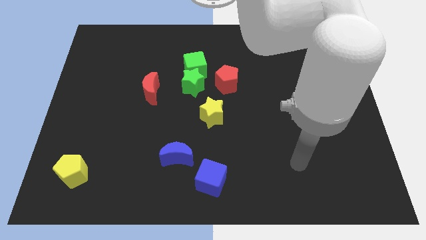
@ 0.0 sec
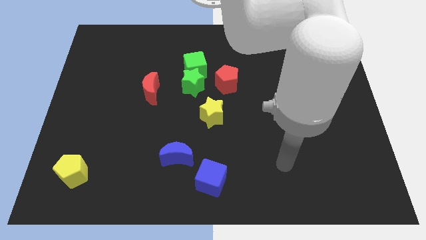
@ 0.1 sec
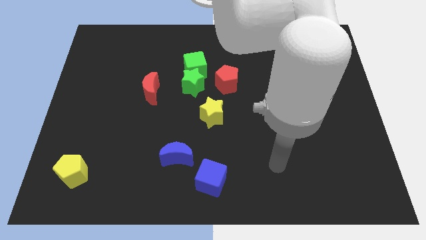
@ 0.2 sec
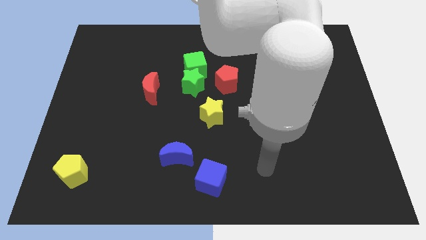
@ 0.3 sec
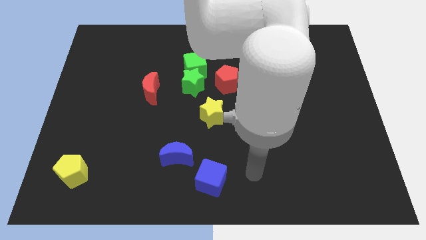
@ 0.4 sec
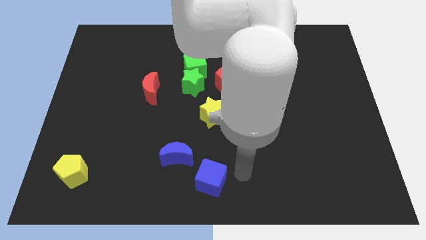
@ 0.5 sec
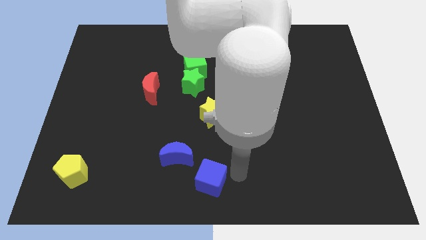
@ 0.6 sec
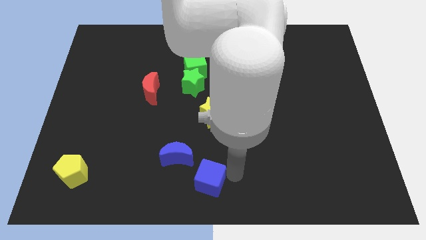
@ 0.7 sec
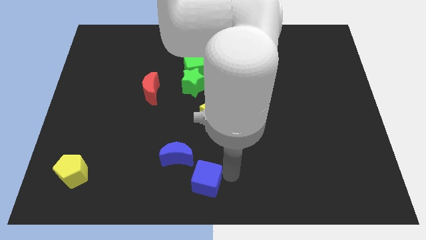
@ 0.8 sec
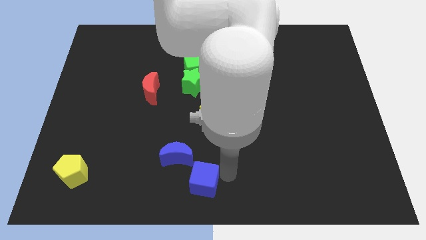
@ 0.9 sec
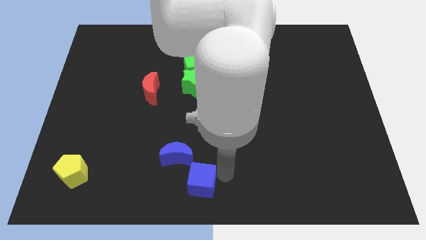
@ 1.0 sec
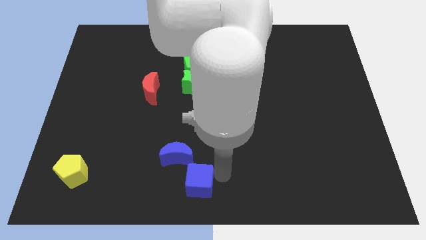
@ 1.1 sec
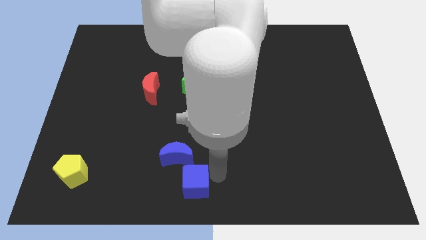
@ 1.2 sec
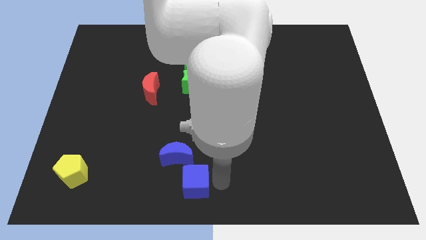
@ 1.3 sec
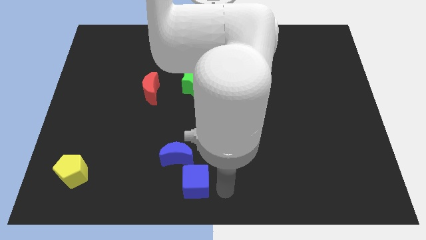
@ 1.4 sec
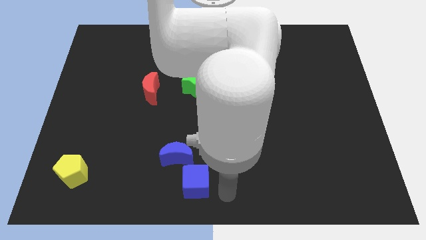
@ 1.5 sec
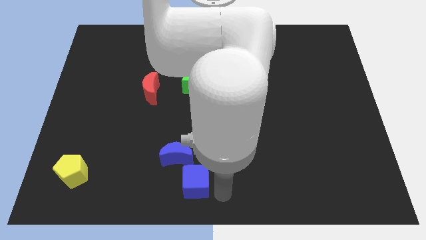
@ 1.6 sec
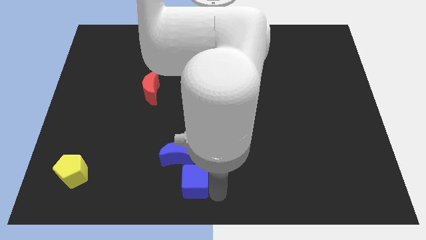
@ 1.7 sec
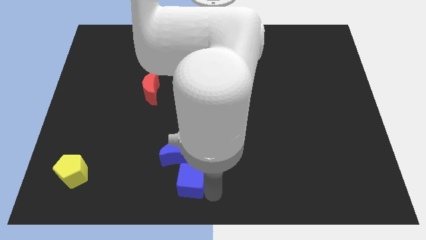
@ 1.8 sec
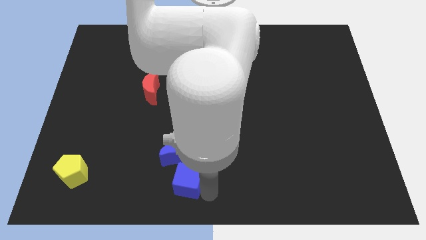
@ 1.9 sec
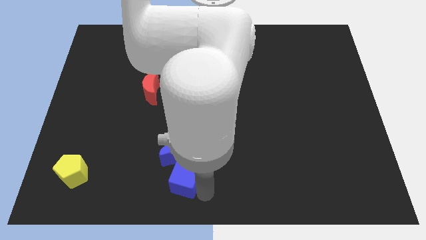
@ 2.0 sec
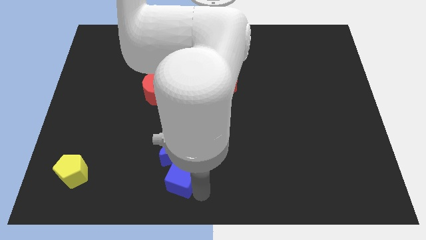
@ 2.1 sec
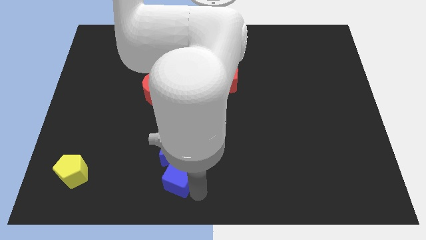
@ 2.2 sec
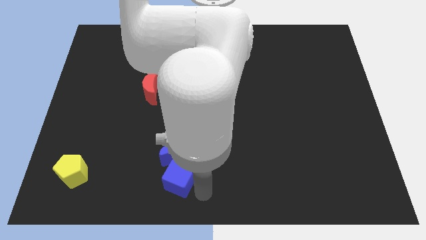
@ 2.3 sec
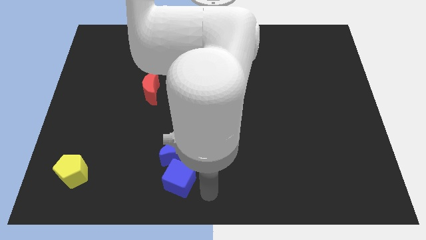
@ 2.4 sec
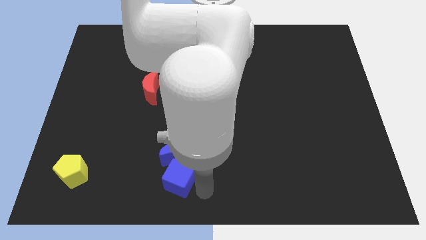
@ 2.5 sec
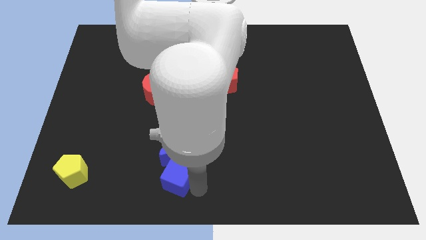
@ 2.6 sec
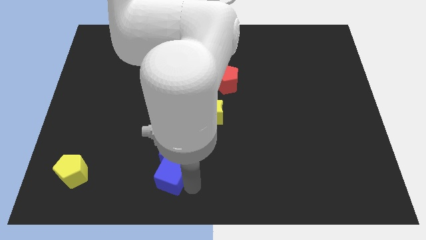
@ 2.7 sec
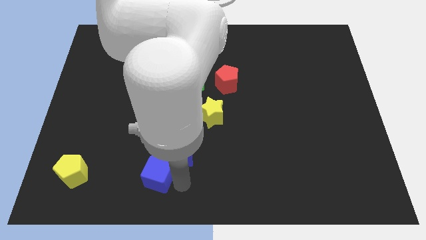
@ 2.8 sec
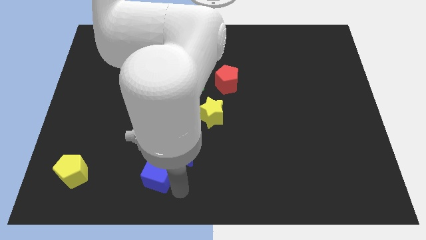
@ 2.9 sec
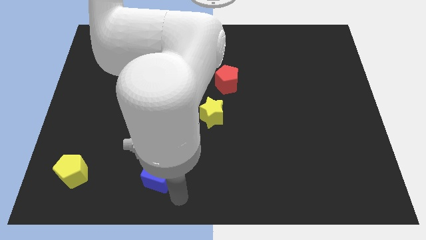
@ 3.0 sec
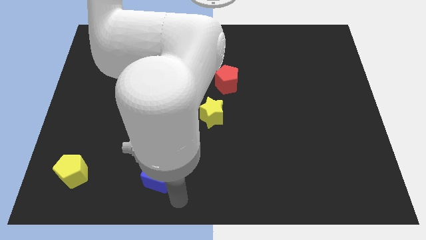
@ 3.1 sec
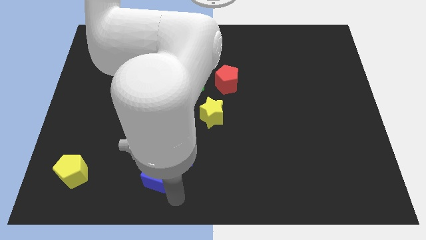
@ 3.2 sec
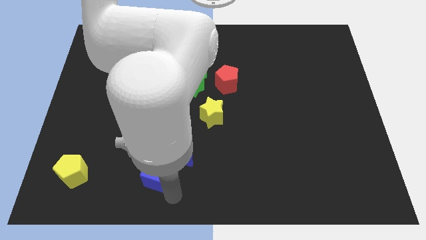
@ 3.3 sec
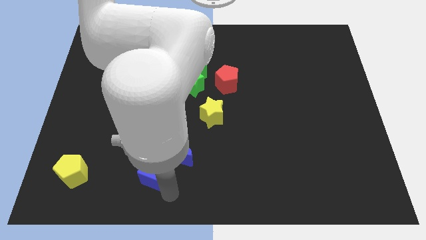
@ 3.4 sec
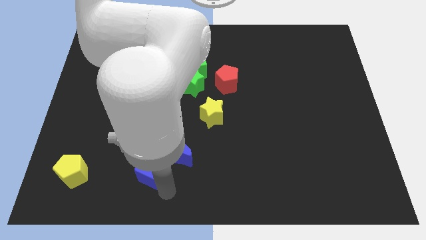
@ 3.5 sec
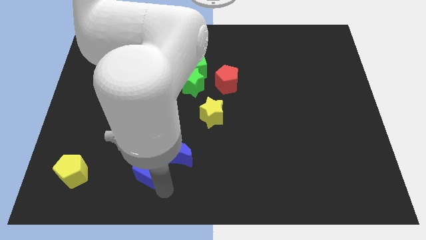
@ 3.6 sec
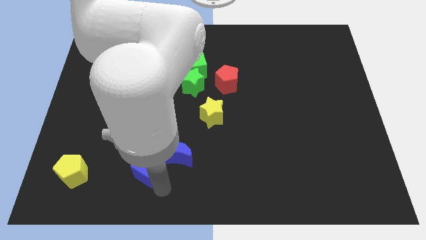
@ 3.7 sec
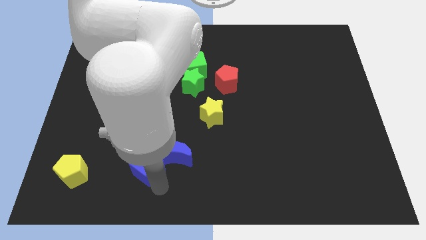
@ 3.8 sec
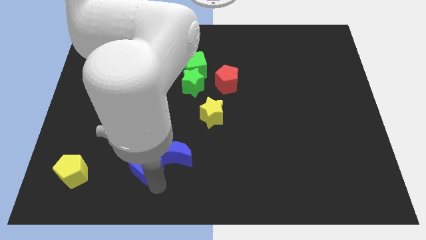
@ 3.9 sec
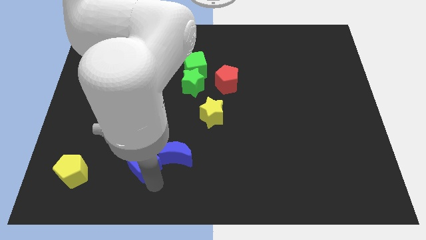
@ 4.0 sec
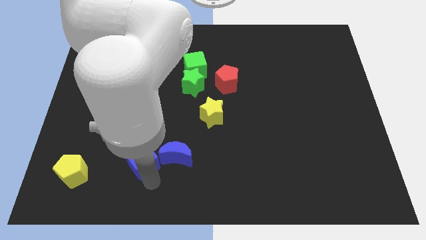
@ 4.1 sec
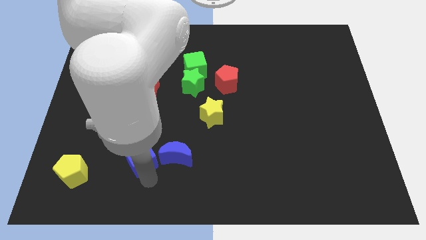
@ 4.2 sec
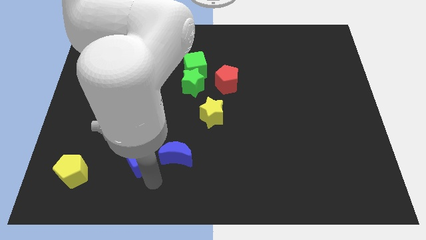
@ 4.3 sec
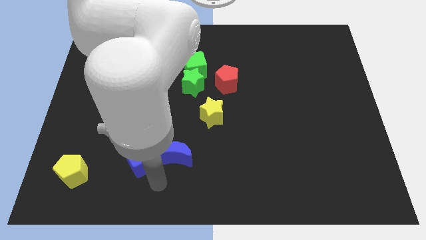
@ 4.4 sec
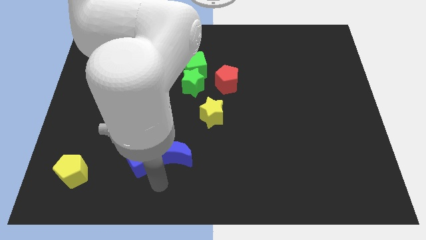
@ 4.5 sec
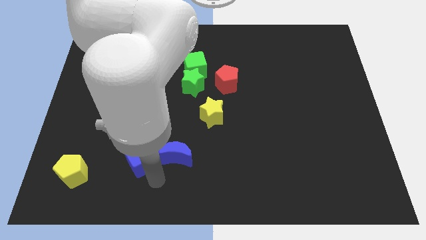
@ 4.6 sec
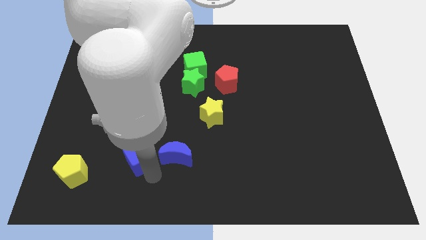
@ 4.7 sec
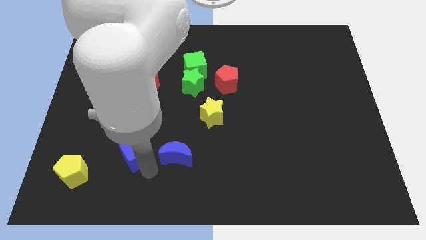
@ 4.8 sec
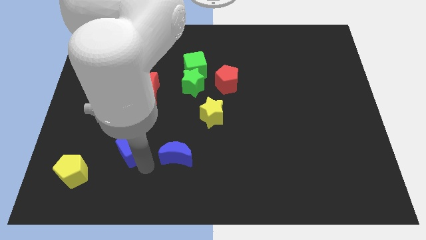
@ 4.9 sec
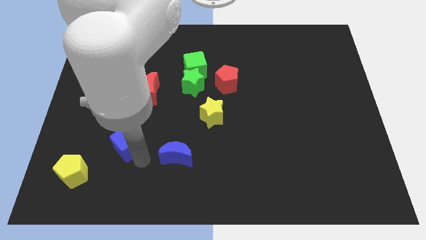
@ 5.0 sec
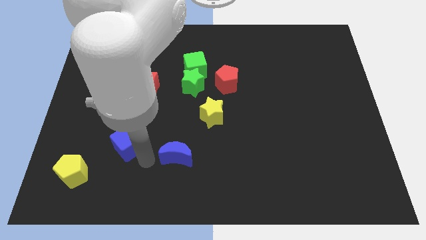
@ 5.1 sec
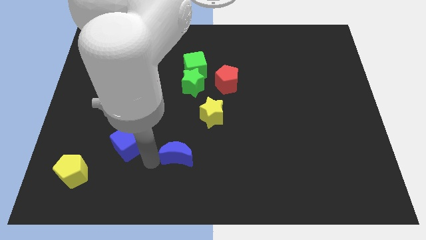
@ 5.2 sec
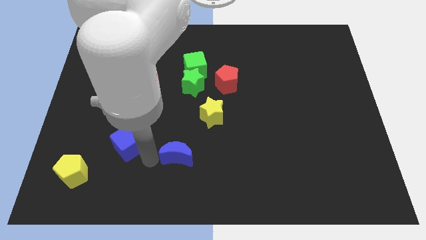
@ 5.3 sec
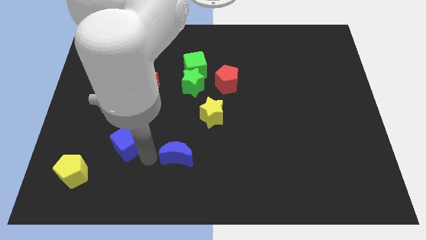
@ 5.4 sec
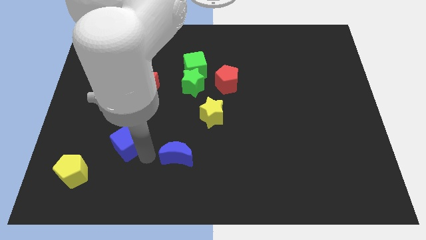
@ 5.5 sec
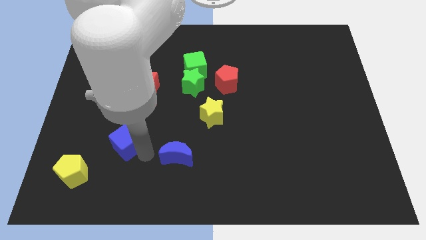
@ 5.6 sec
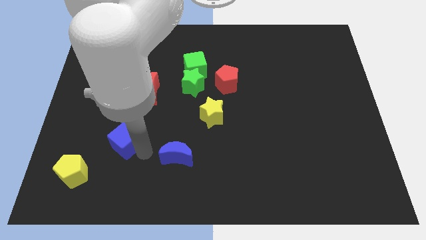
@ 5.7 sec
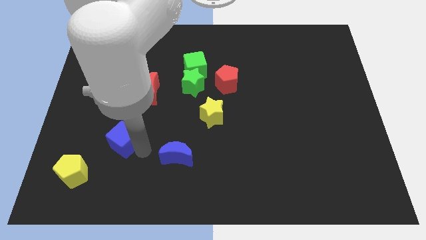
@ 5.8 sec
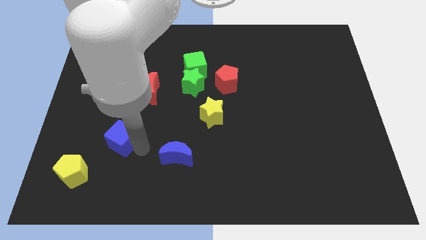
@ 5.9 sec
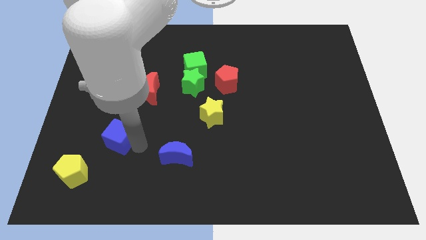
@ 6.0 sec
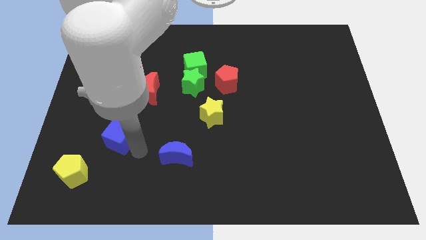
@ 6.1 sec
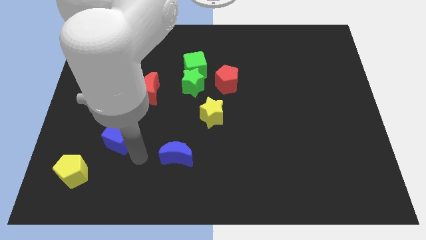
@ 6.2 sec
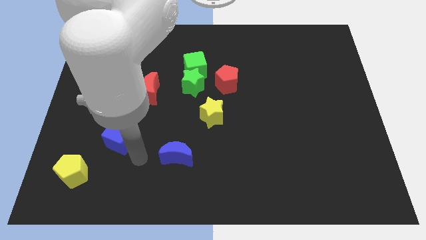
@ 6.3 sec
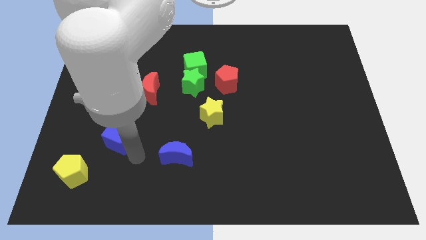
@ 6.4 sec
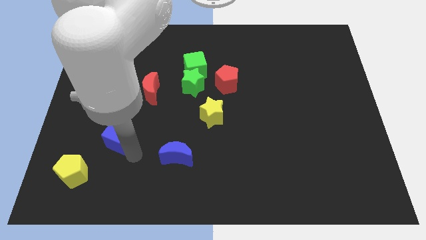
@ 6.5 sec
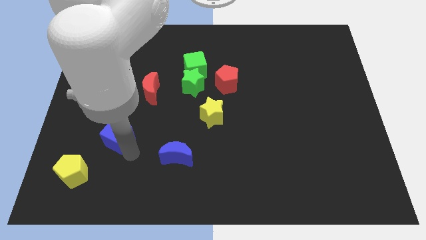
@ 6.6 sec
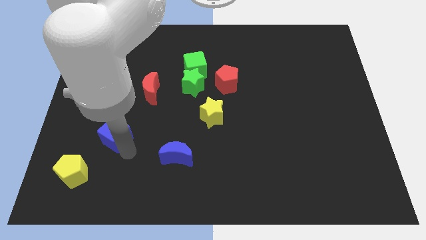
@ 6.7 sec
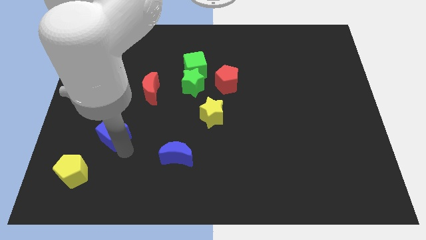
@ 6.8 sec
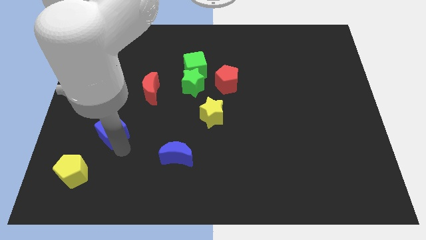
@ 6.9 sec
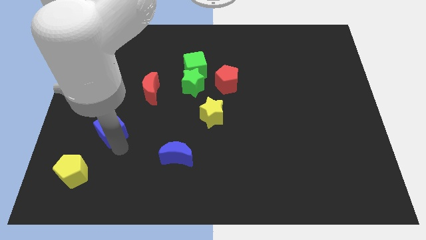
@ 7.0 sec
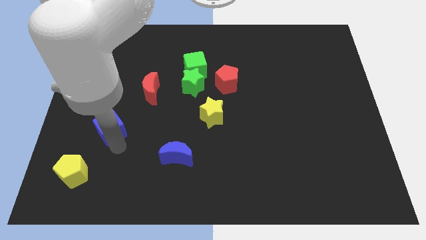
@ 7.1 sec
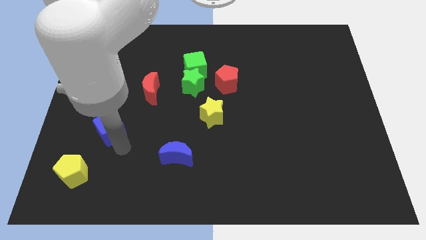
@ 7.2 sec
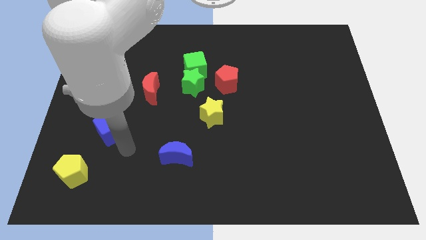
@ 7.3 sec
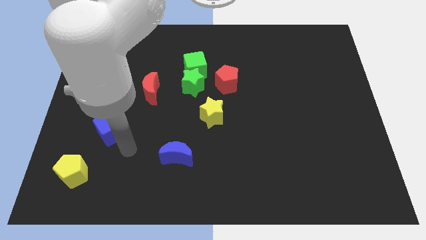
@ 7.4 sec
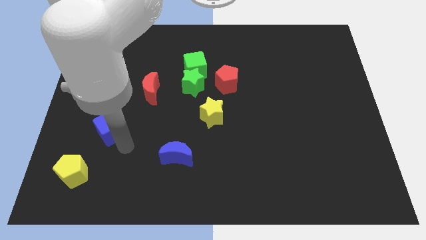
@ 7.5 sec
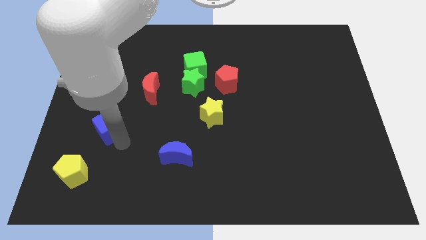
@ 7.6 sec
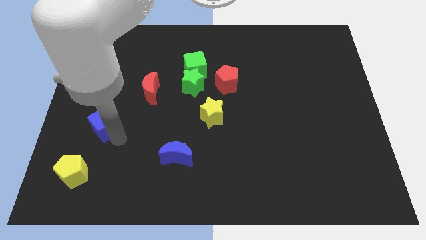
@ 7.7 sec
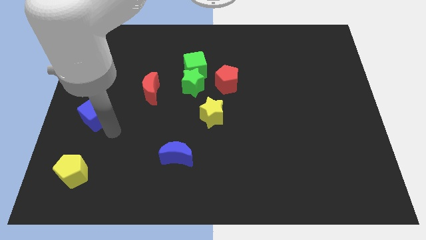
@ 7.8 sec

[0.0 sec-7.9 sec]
put the blue cube to the center left
